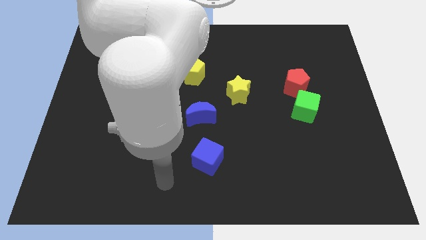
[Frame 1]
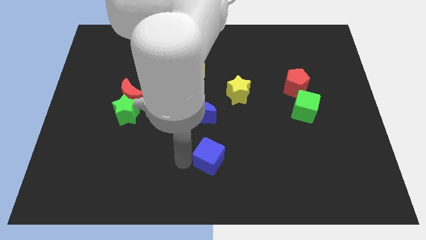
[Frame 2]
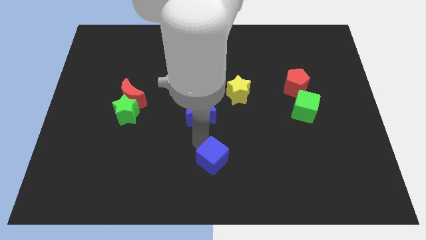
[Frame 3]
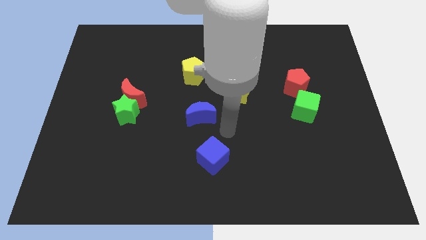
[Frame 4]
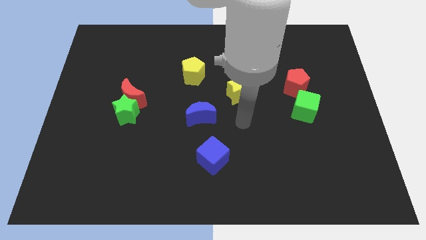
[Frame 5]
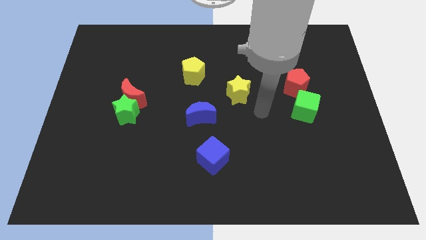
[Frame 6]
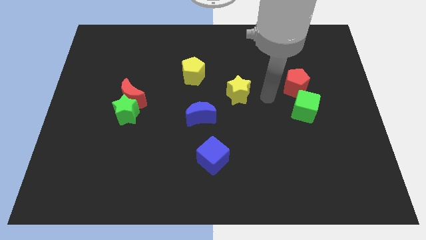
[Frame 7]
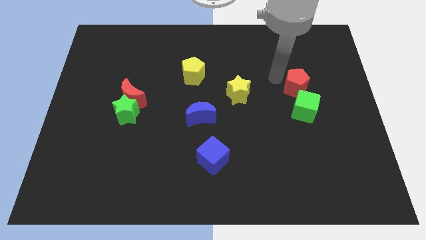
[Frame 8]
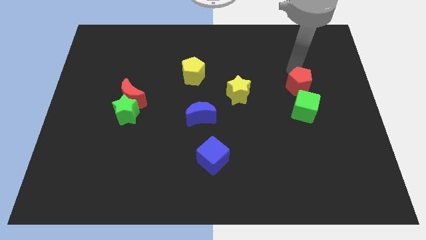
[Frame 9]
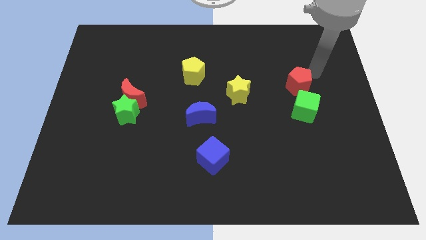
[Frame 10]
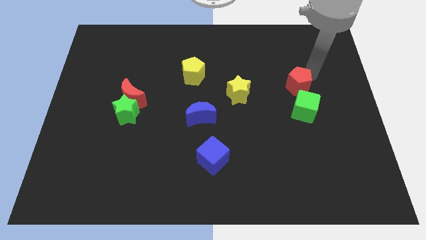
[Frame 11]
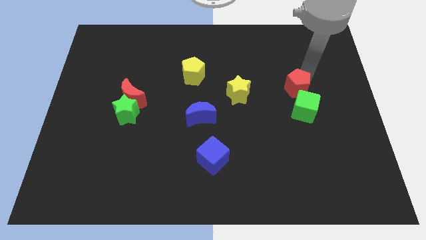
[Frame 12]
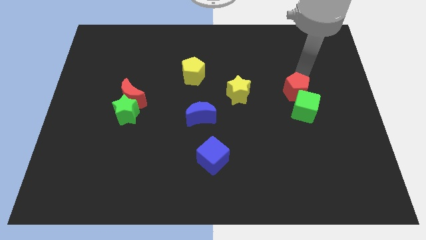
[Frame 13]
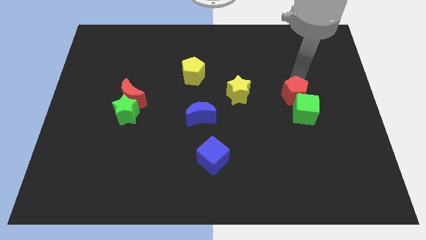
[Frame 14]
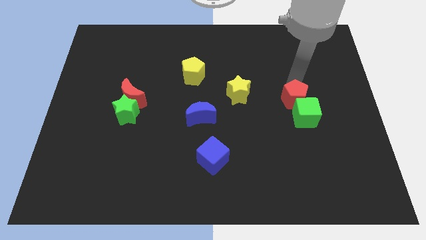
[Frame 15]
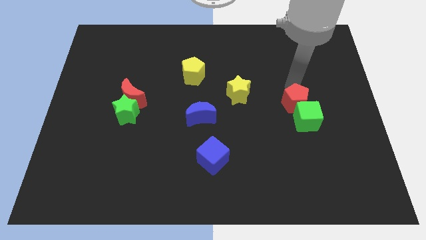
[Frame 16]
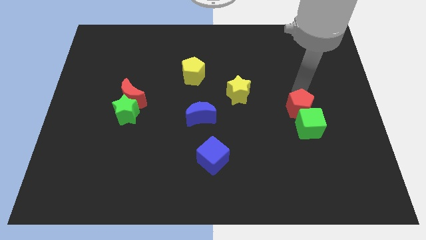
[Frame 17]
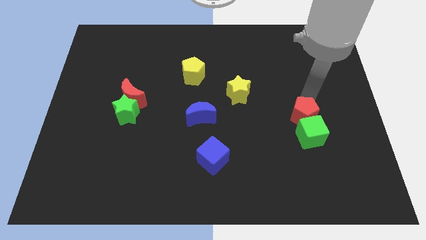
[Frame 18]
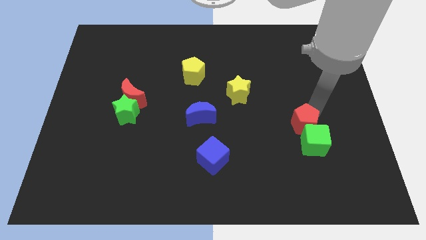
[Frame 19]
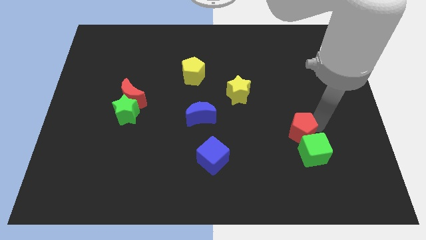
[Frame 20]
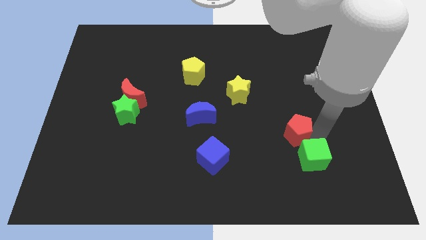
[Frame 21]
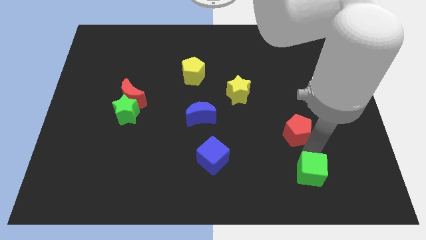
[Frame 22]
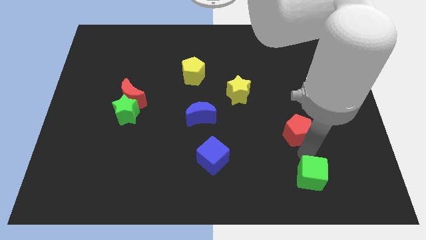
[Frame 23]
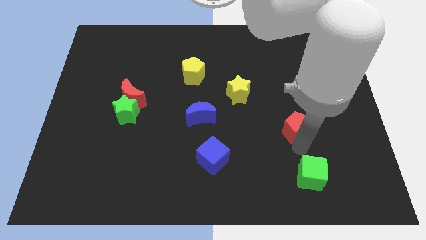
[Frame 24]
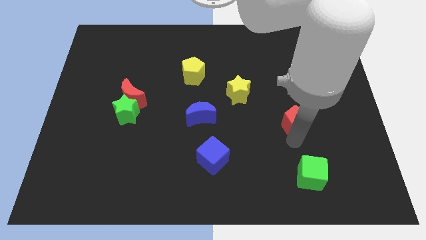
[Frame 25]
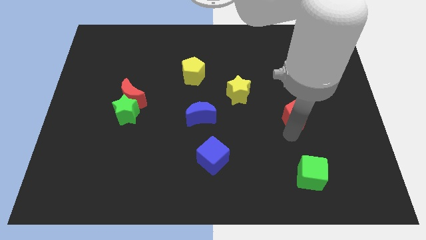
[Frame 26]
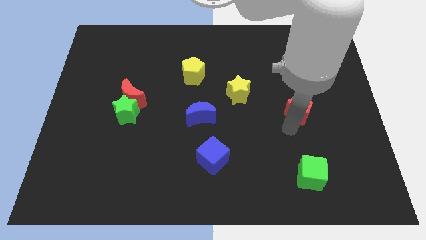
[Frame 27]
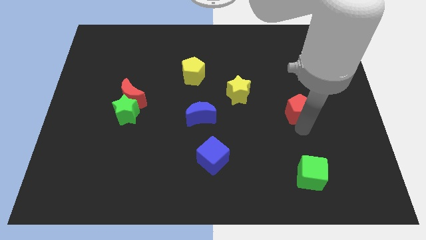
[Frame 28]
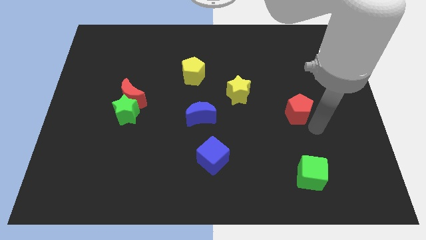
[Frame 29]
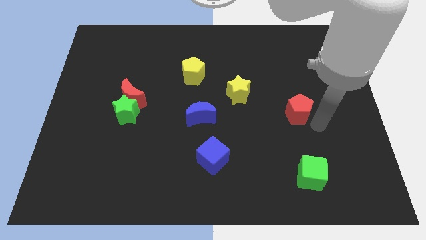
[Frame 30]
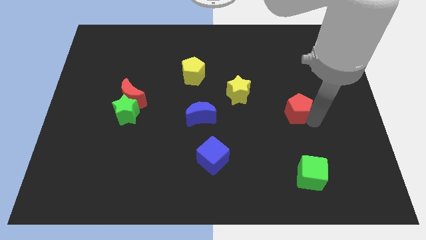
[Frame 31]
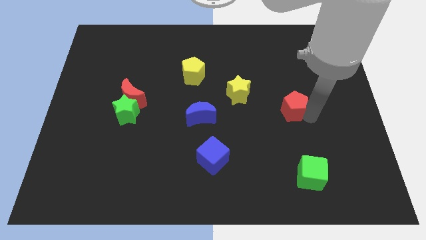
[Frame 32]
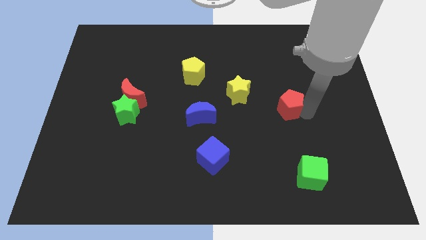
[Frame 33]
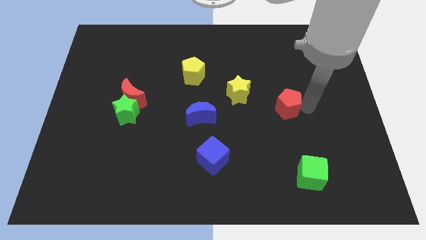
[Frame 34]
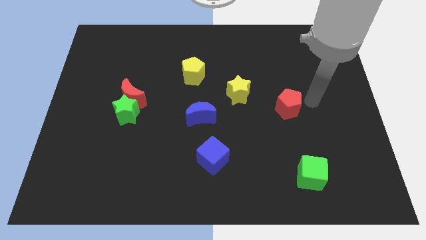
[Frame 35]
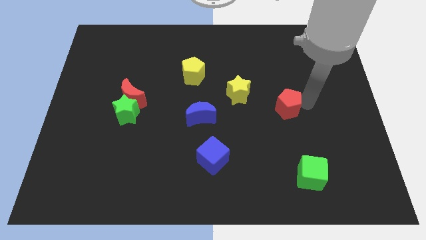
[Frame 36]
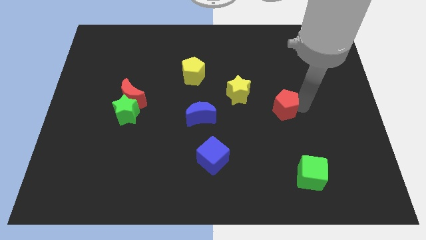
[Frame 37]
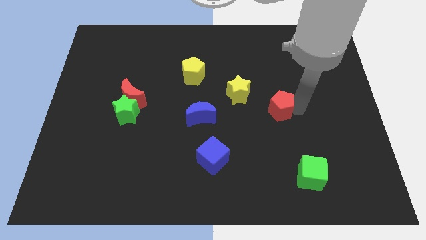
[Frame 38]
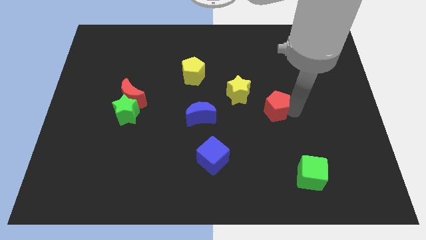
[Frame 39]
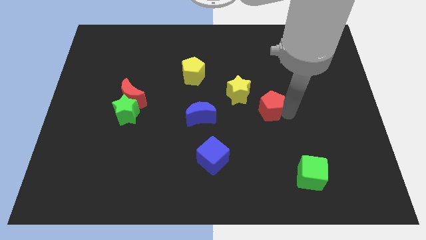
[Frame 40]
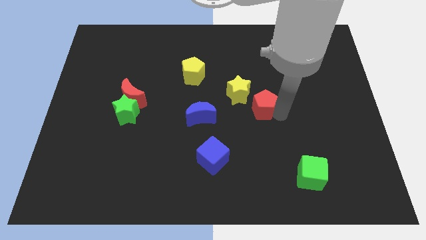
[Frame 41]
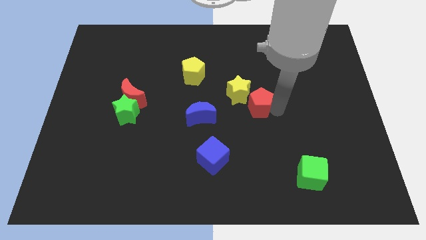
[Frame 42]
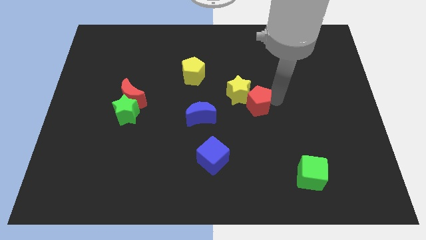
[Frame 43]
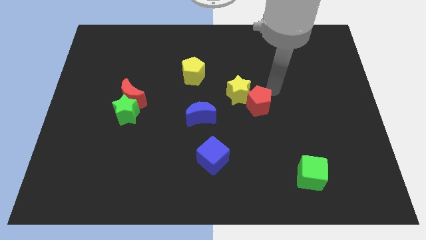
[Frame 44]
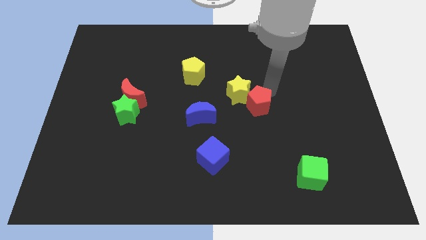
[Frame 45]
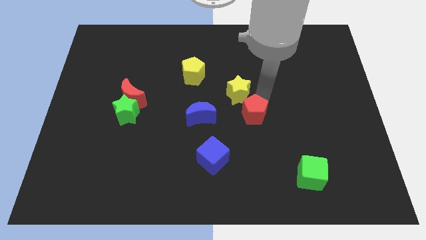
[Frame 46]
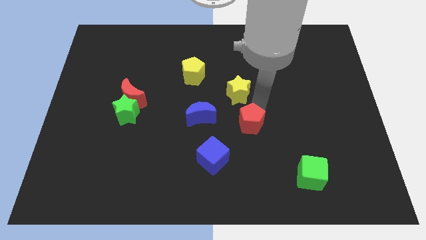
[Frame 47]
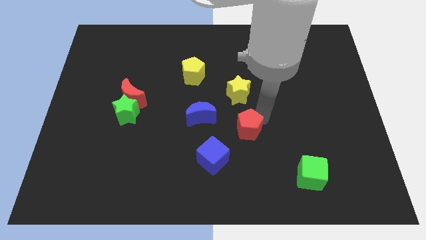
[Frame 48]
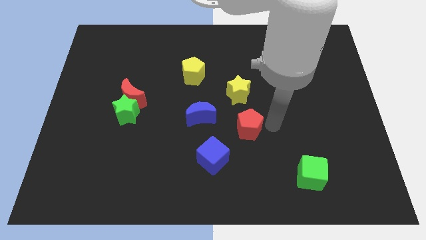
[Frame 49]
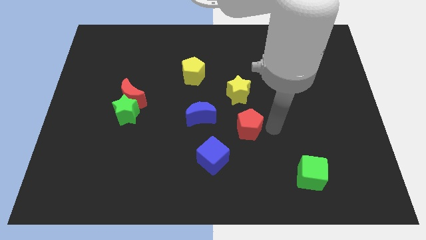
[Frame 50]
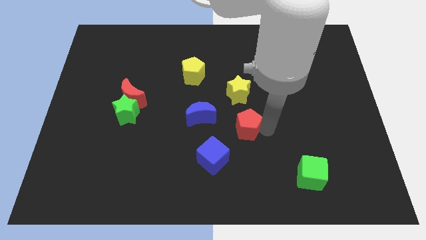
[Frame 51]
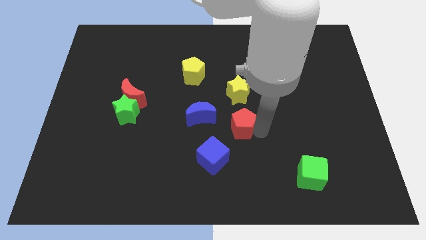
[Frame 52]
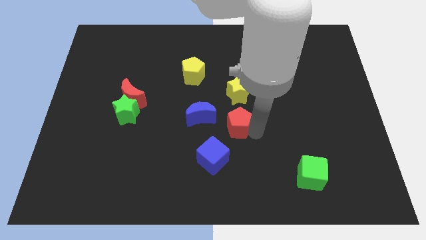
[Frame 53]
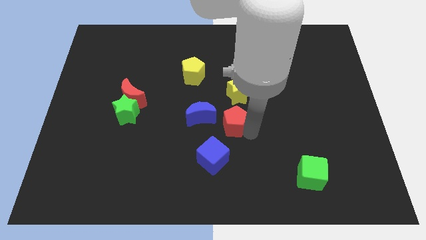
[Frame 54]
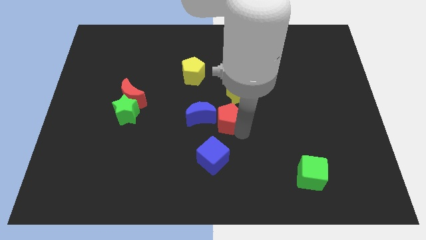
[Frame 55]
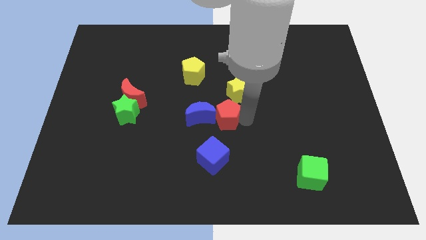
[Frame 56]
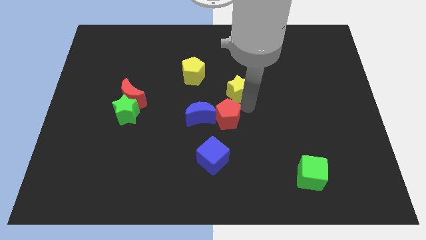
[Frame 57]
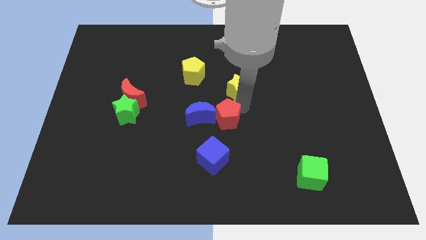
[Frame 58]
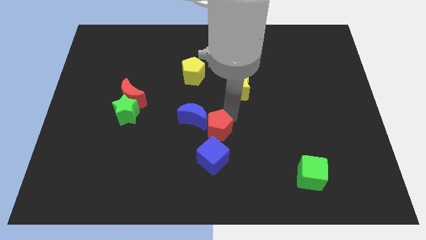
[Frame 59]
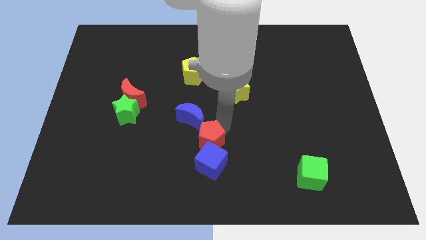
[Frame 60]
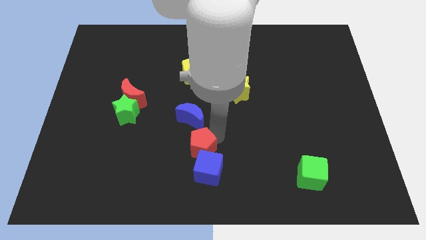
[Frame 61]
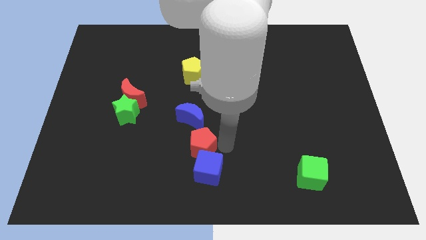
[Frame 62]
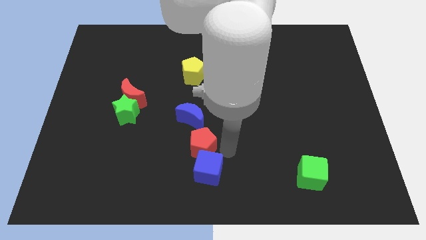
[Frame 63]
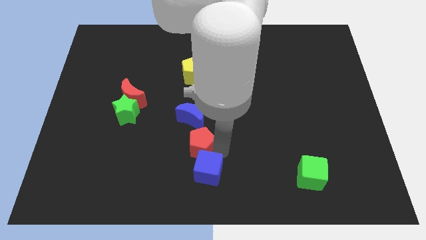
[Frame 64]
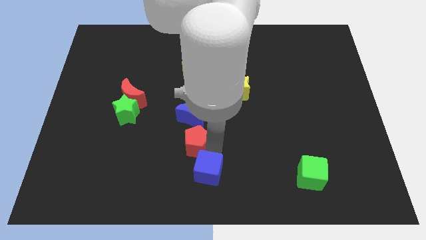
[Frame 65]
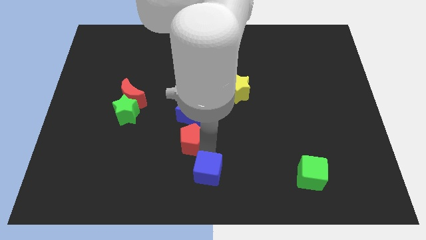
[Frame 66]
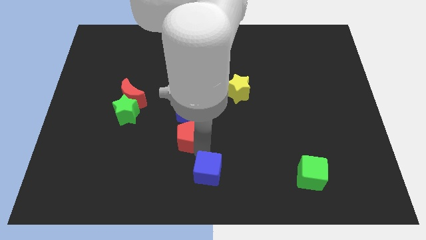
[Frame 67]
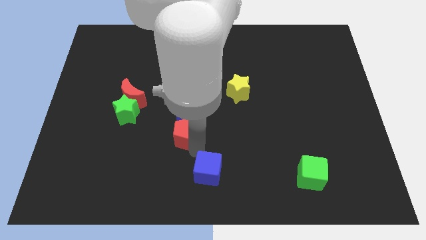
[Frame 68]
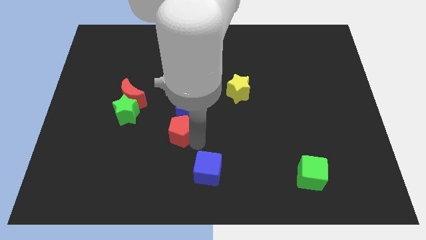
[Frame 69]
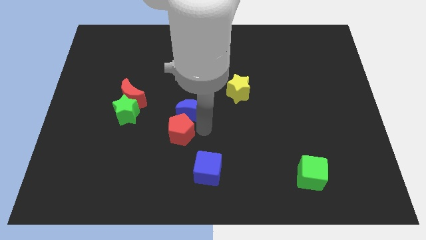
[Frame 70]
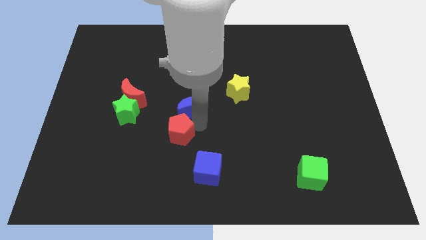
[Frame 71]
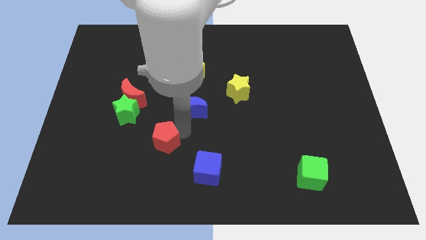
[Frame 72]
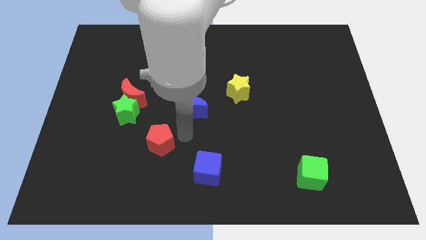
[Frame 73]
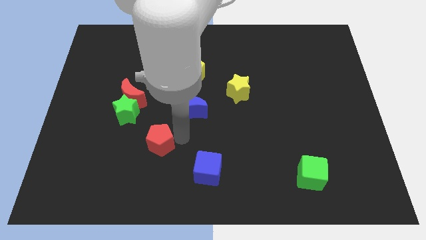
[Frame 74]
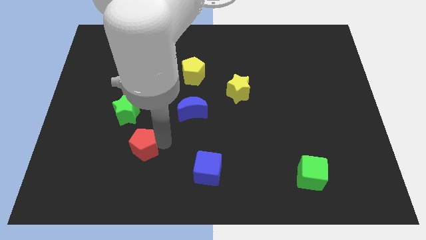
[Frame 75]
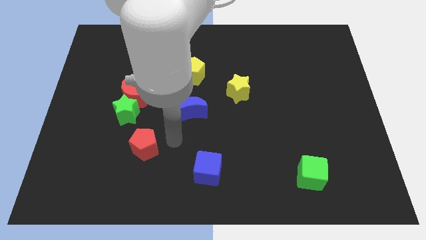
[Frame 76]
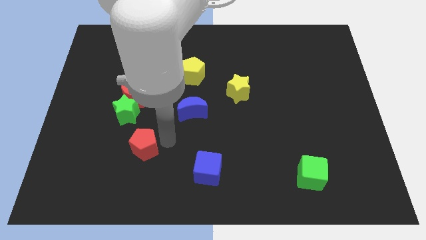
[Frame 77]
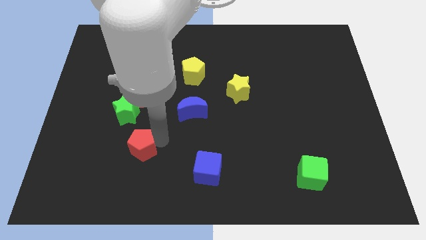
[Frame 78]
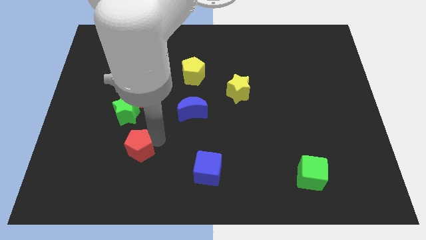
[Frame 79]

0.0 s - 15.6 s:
push the red pentagon to the bottom side of the green star
